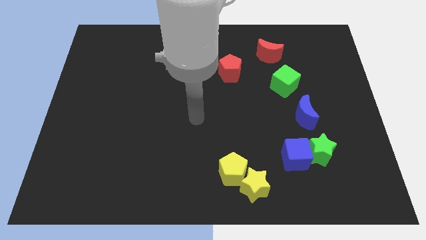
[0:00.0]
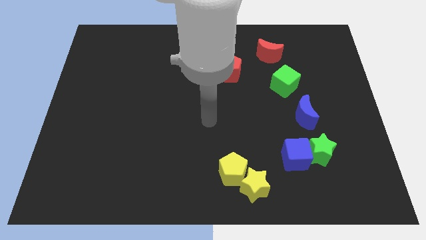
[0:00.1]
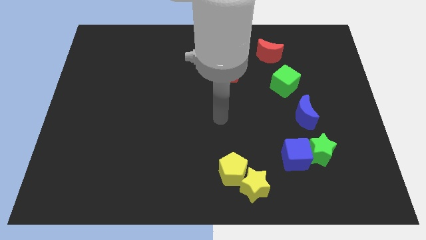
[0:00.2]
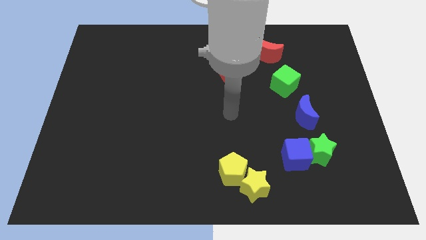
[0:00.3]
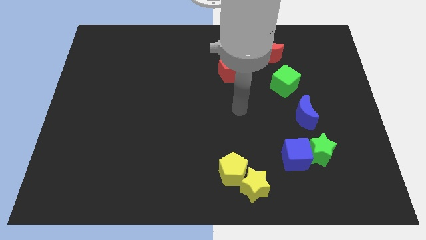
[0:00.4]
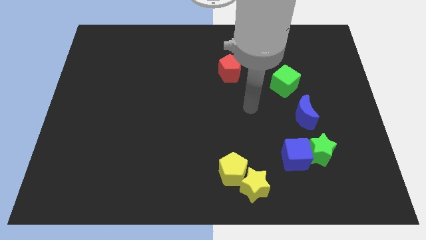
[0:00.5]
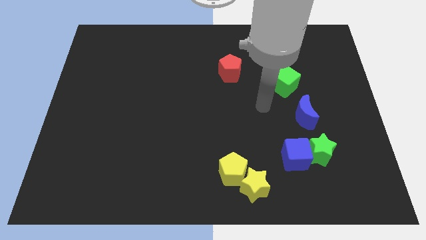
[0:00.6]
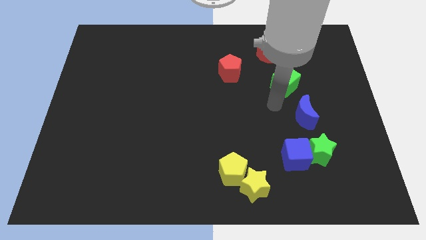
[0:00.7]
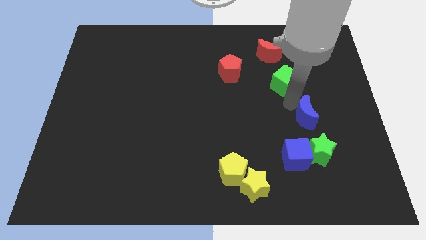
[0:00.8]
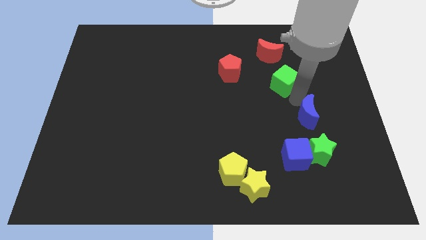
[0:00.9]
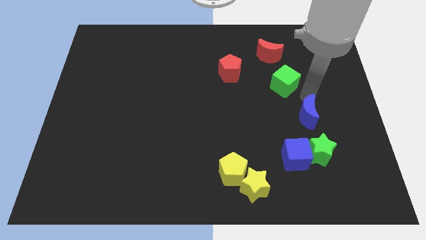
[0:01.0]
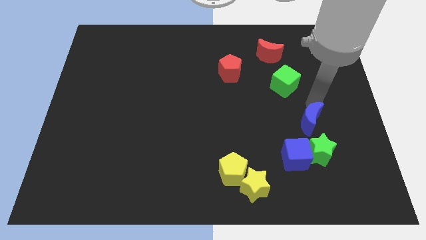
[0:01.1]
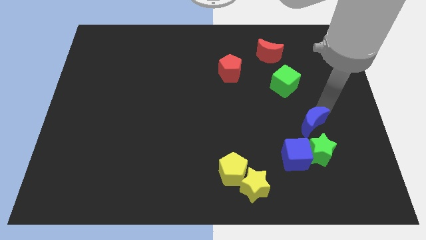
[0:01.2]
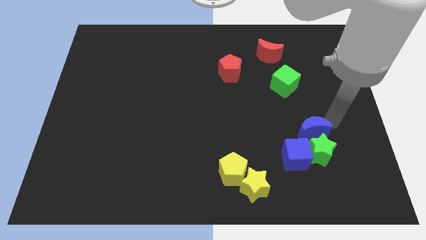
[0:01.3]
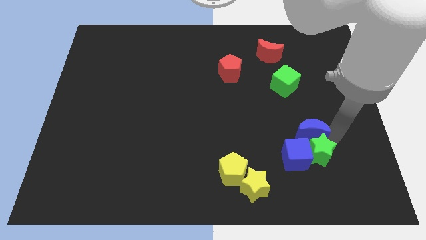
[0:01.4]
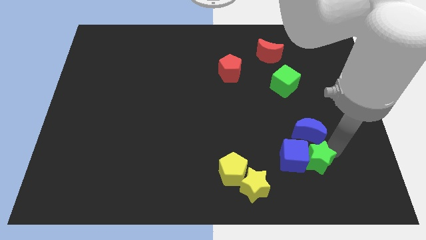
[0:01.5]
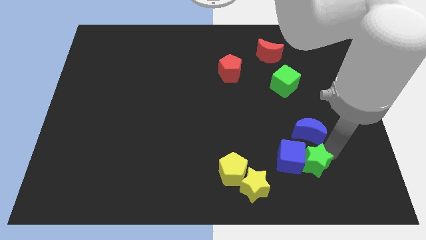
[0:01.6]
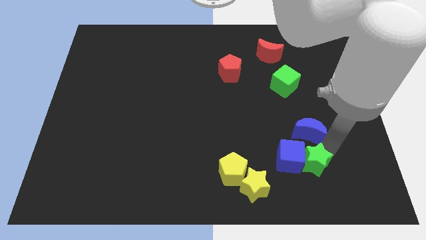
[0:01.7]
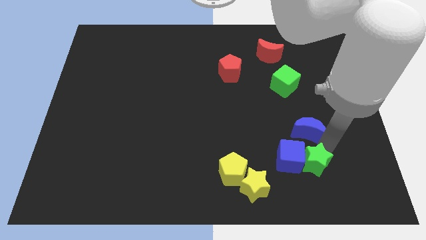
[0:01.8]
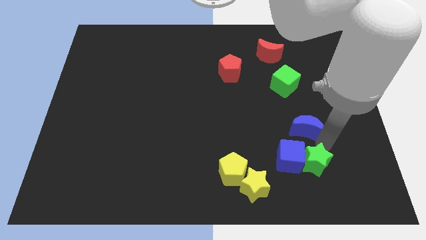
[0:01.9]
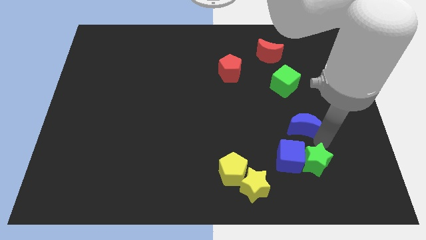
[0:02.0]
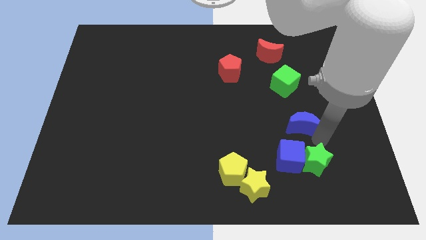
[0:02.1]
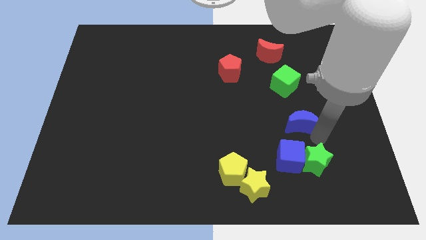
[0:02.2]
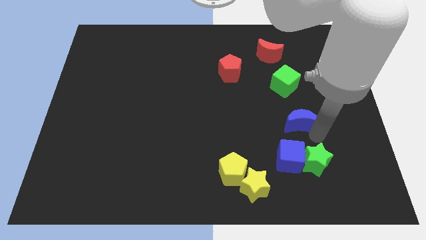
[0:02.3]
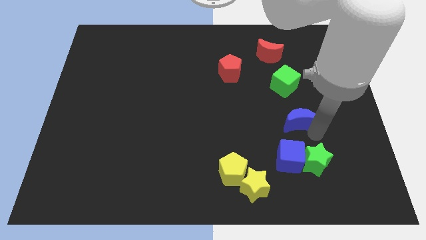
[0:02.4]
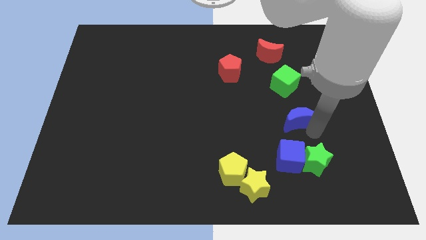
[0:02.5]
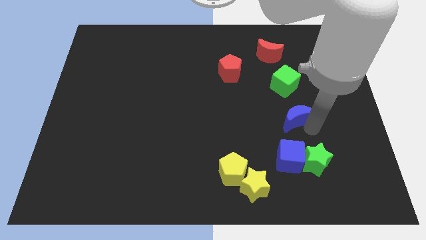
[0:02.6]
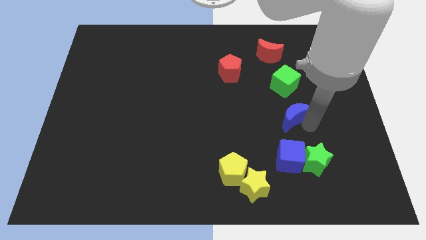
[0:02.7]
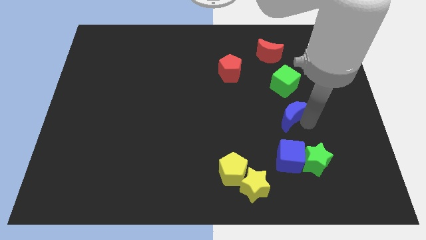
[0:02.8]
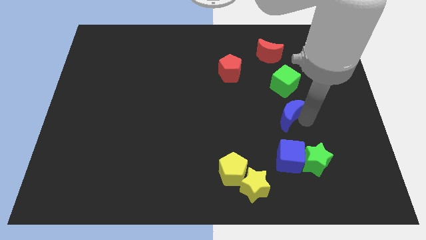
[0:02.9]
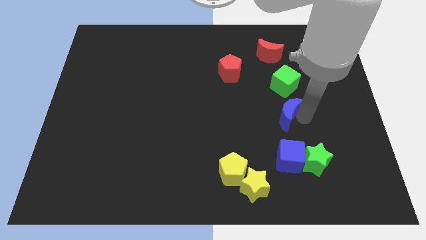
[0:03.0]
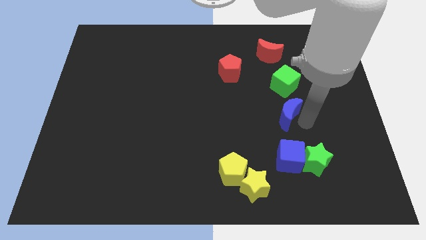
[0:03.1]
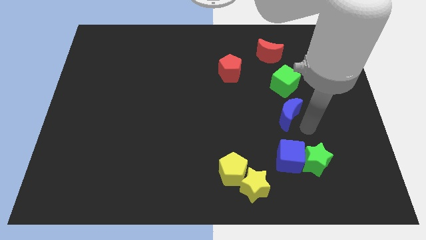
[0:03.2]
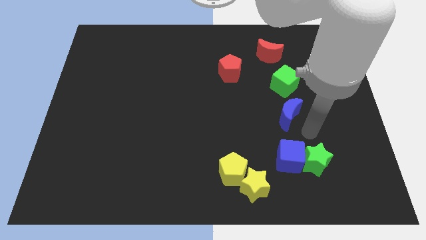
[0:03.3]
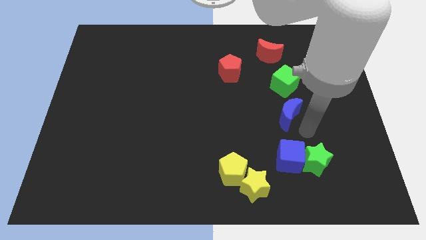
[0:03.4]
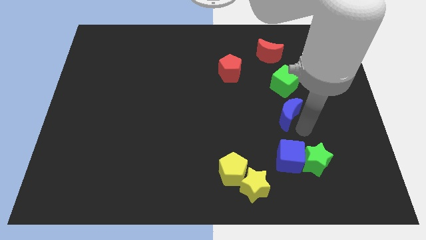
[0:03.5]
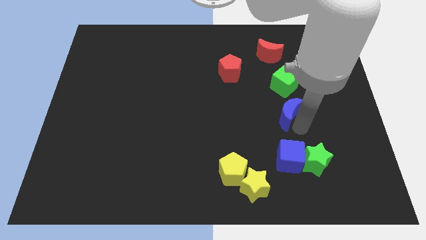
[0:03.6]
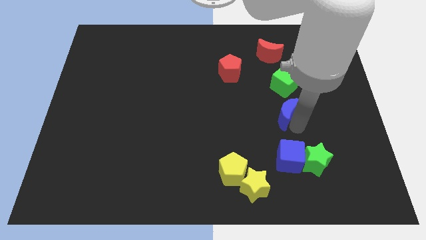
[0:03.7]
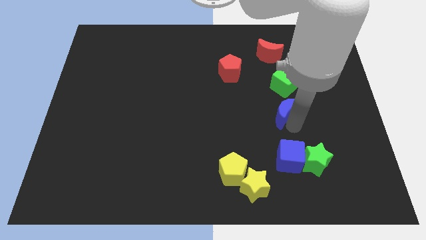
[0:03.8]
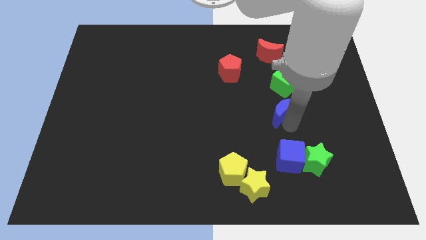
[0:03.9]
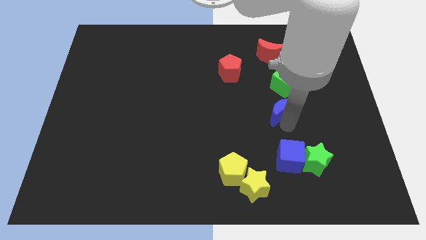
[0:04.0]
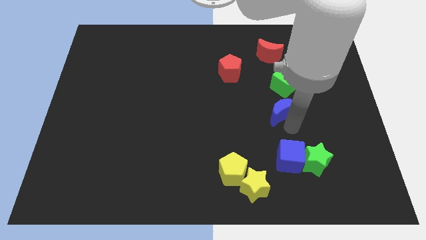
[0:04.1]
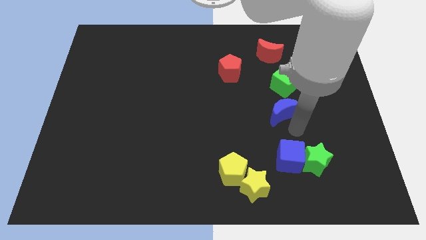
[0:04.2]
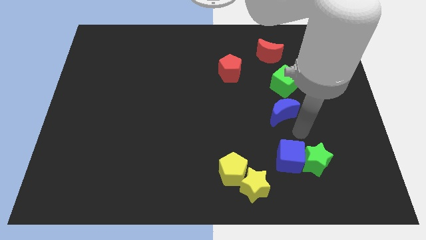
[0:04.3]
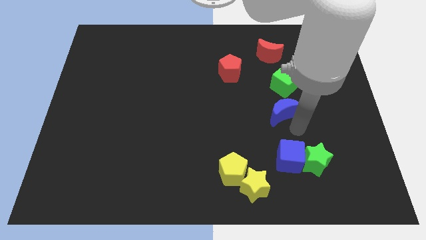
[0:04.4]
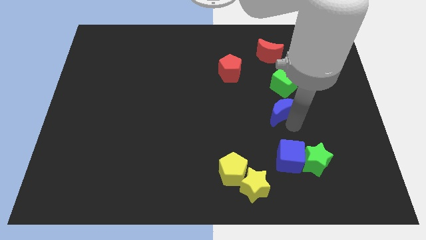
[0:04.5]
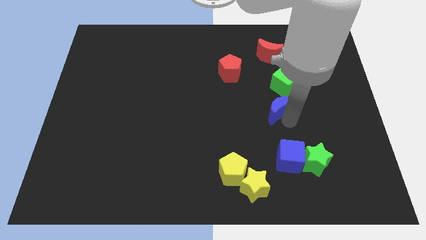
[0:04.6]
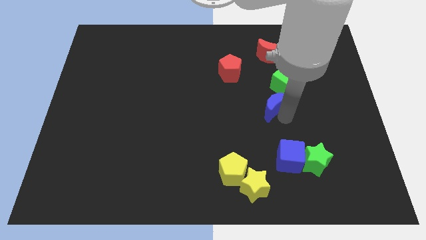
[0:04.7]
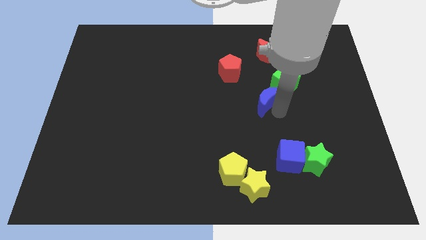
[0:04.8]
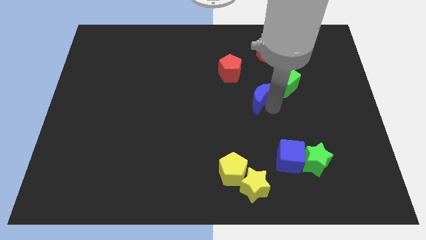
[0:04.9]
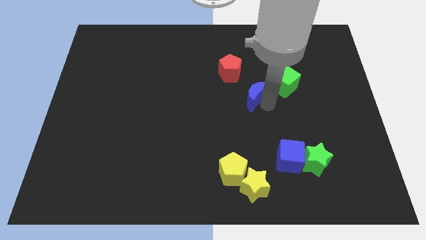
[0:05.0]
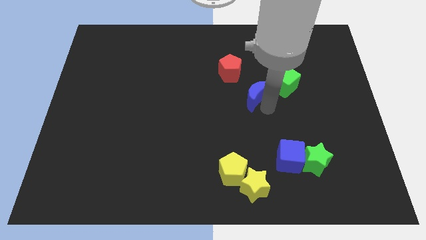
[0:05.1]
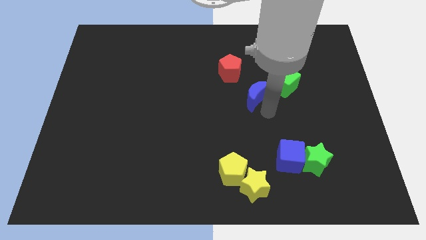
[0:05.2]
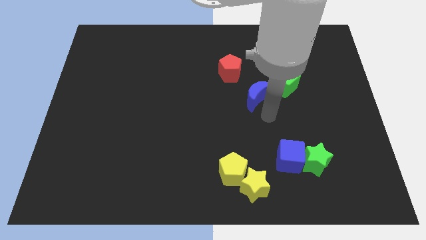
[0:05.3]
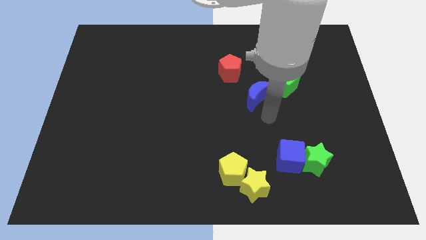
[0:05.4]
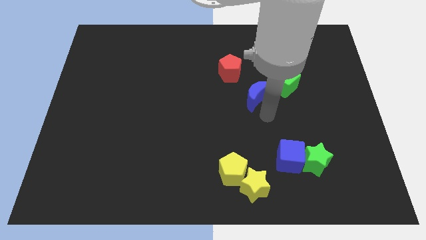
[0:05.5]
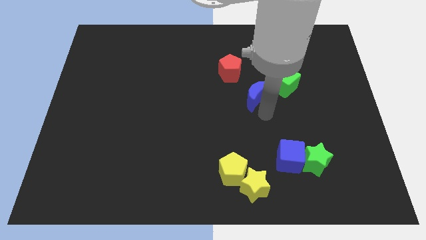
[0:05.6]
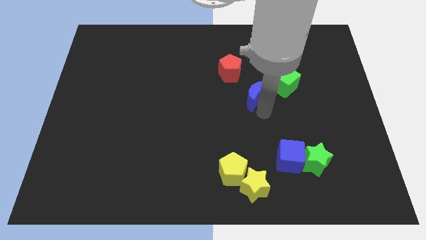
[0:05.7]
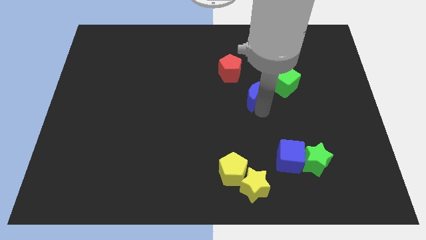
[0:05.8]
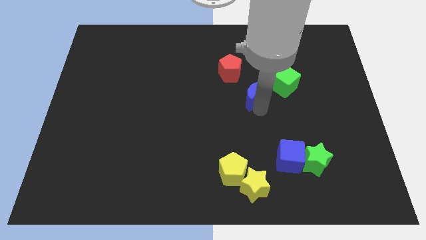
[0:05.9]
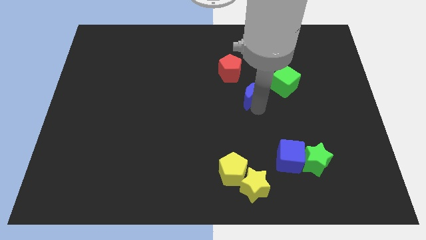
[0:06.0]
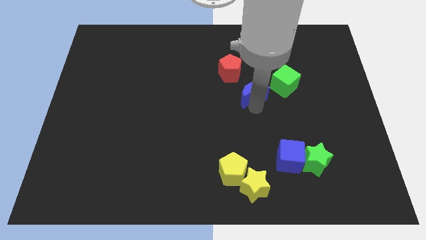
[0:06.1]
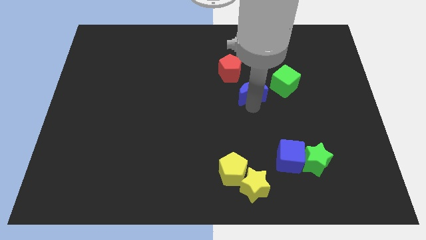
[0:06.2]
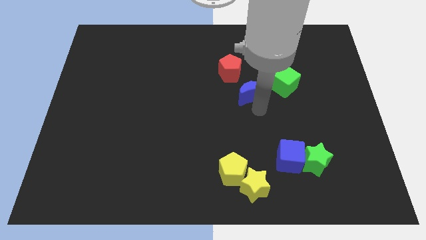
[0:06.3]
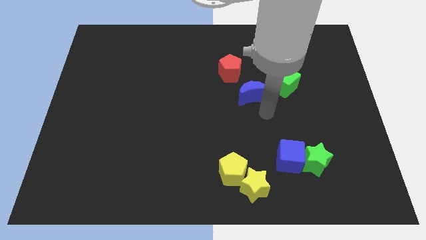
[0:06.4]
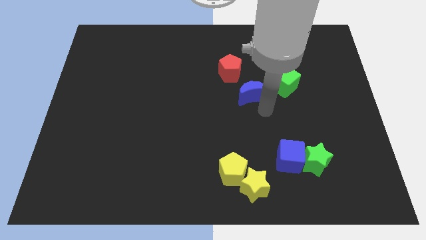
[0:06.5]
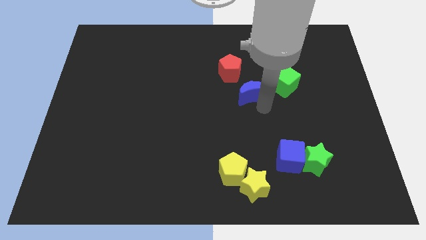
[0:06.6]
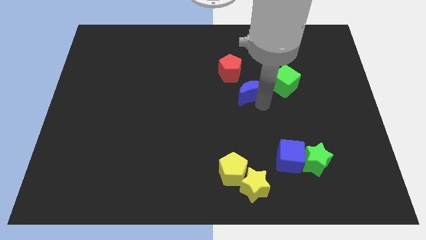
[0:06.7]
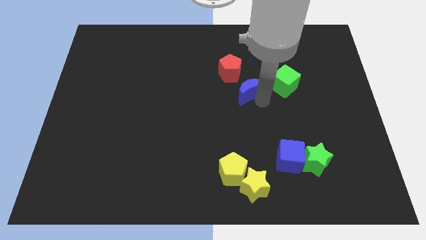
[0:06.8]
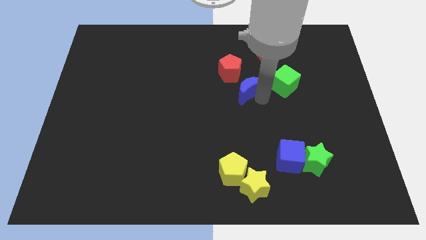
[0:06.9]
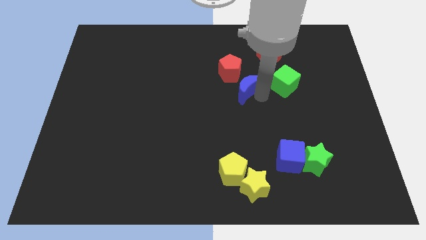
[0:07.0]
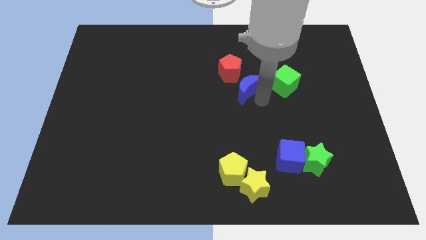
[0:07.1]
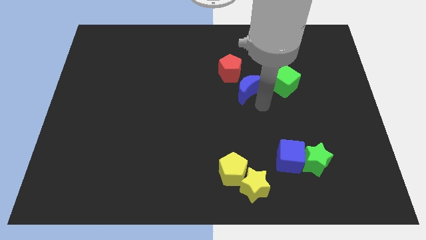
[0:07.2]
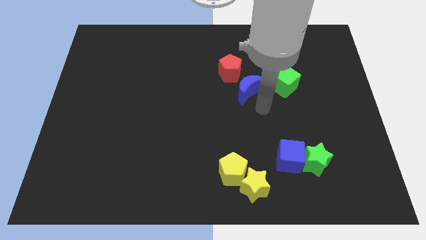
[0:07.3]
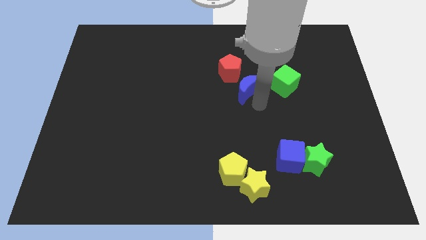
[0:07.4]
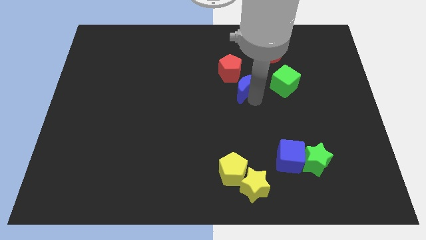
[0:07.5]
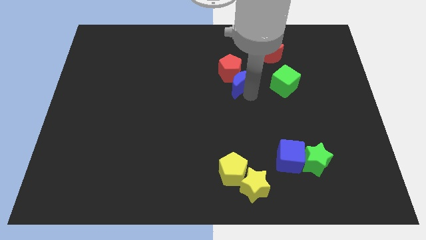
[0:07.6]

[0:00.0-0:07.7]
push the blue moon to the red pentagon

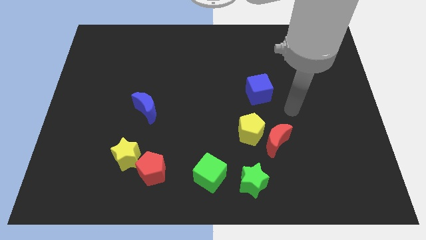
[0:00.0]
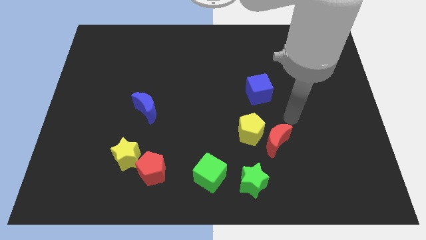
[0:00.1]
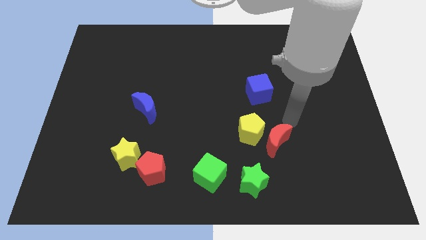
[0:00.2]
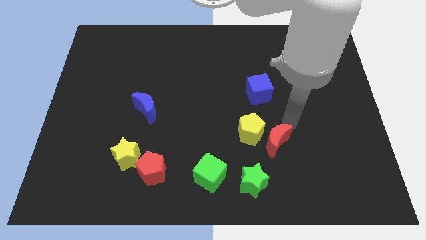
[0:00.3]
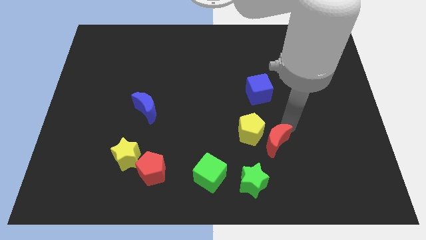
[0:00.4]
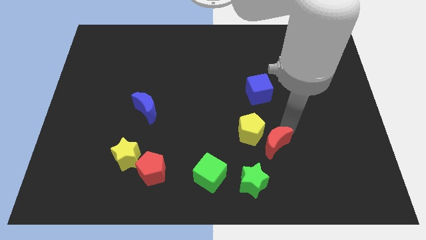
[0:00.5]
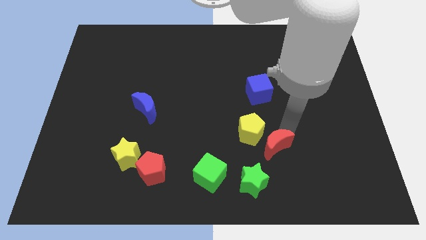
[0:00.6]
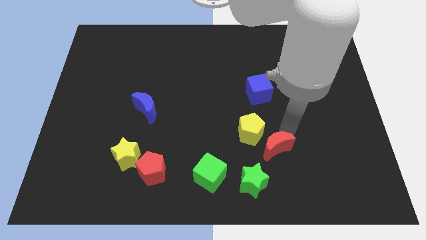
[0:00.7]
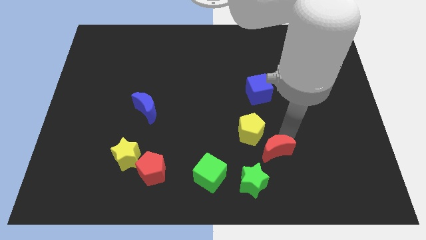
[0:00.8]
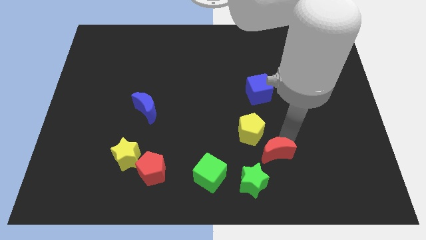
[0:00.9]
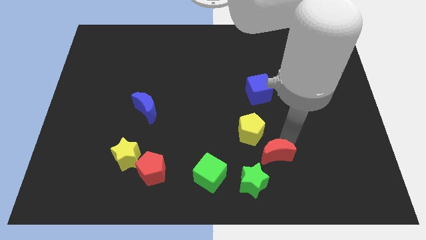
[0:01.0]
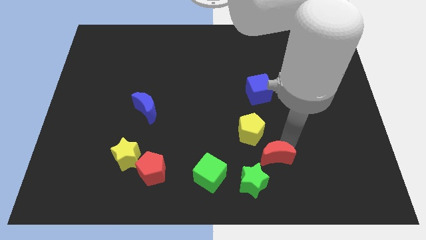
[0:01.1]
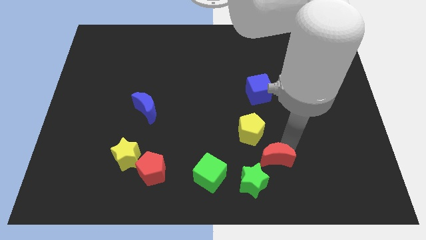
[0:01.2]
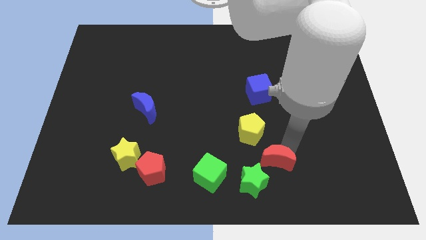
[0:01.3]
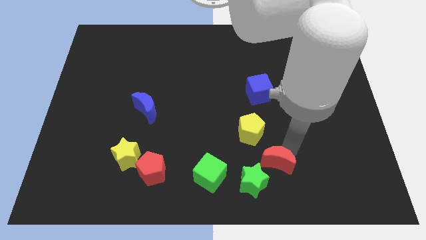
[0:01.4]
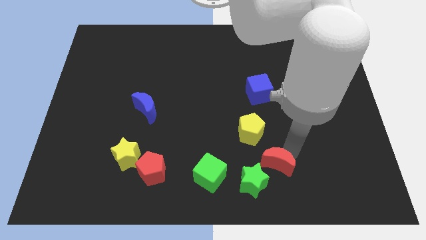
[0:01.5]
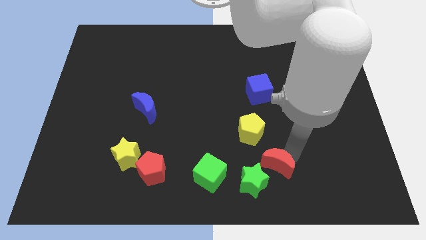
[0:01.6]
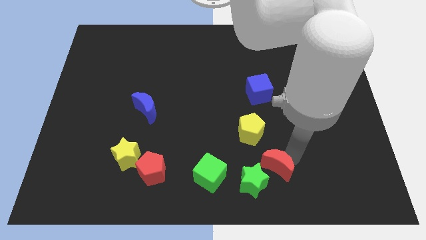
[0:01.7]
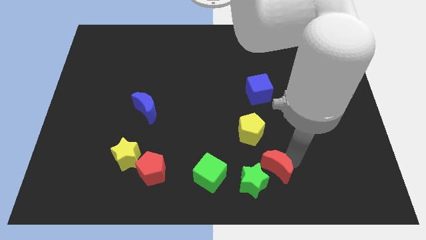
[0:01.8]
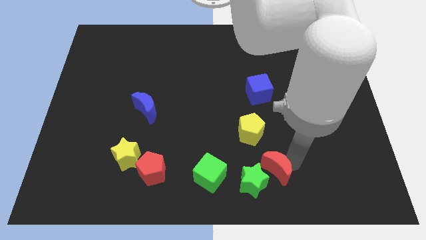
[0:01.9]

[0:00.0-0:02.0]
slide the red moon to the green star
